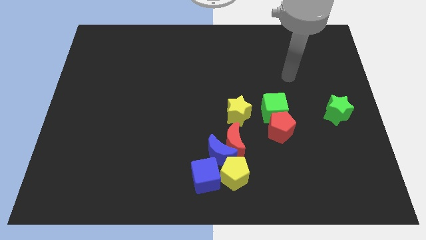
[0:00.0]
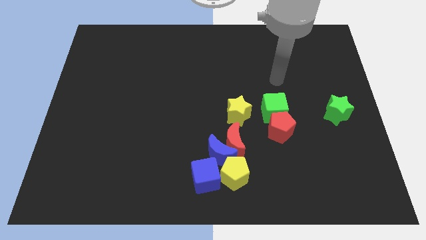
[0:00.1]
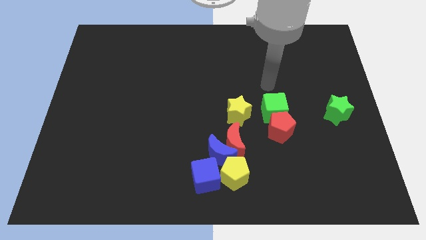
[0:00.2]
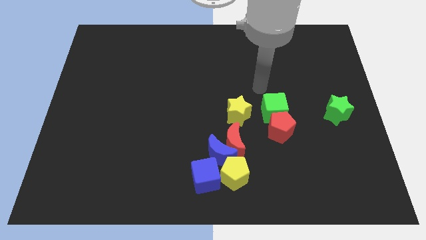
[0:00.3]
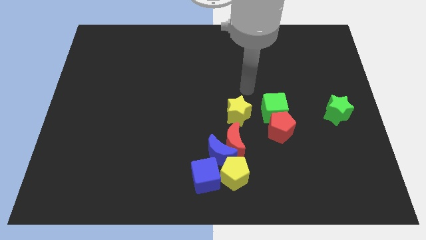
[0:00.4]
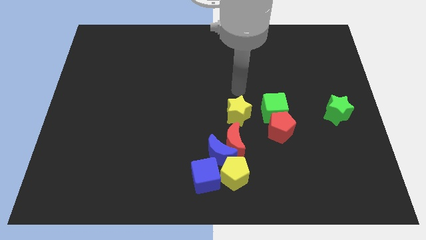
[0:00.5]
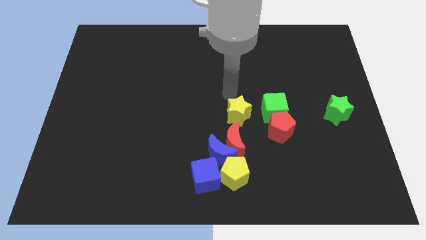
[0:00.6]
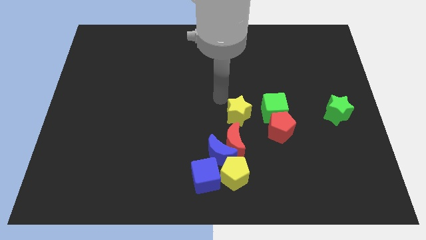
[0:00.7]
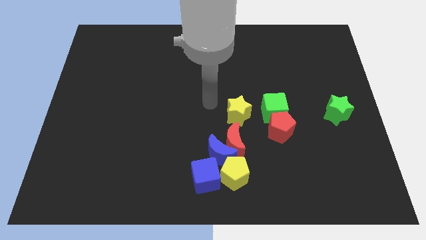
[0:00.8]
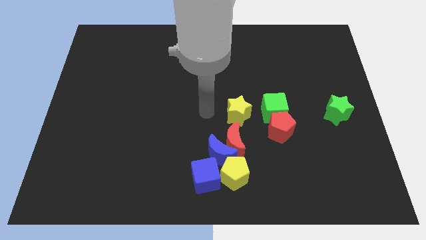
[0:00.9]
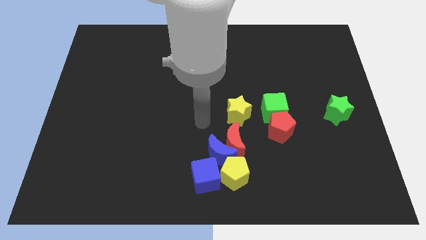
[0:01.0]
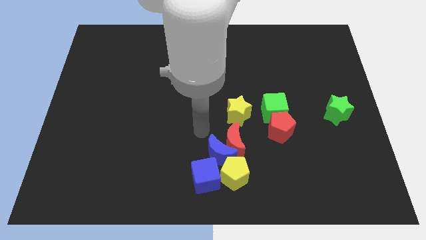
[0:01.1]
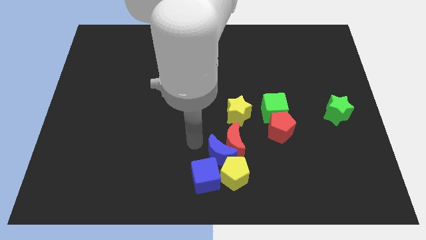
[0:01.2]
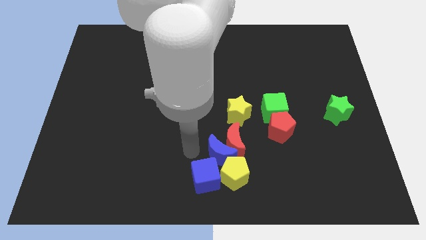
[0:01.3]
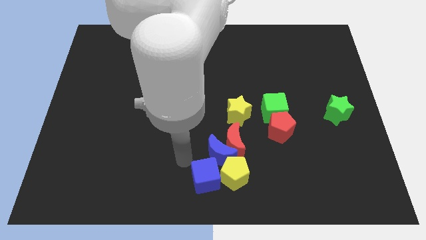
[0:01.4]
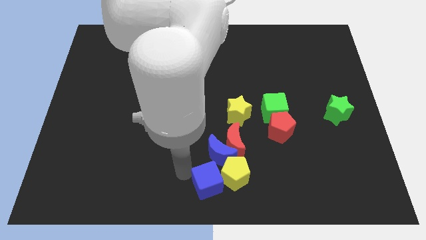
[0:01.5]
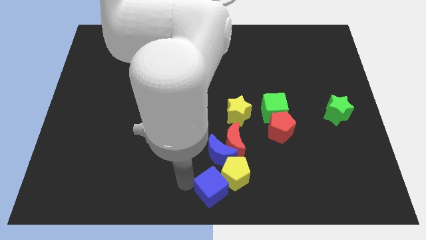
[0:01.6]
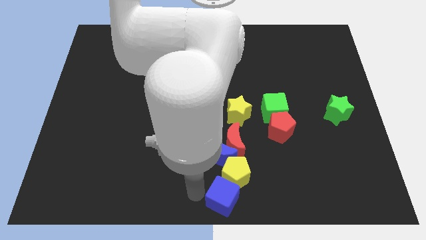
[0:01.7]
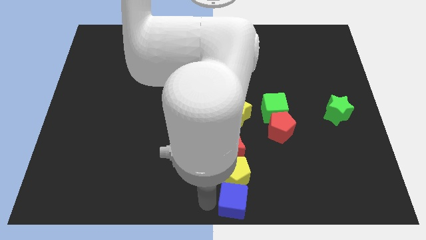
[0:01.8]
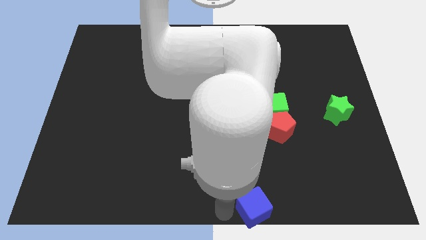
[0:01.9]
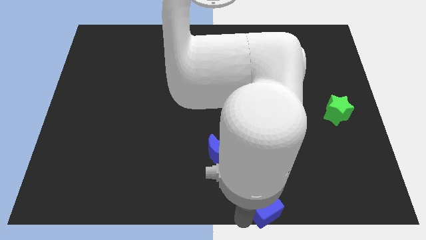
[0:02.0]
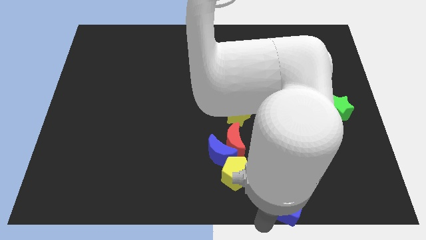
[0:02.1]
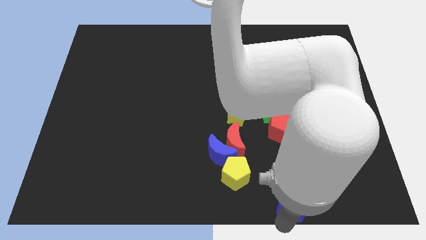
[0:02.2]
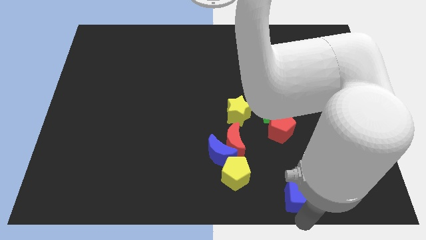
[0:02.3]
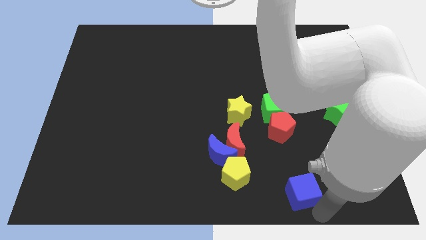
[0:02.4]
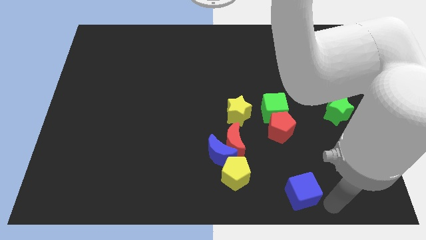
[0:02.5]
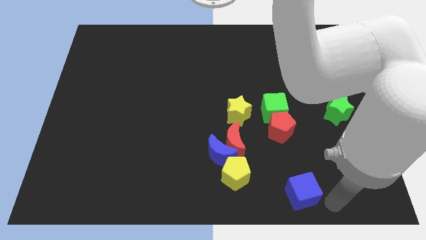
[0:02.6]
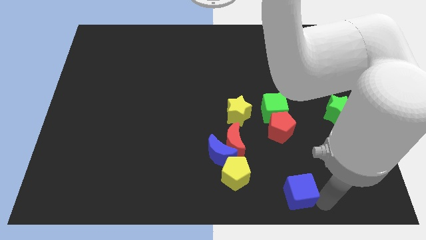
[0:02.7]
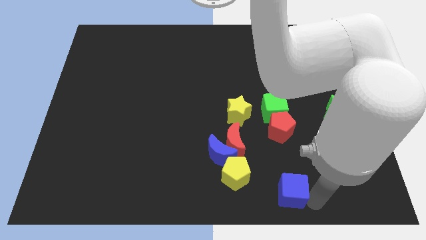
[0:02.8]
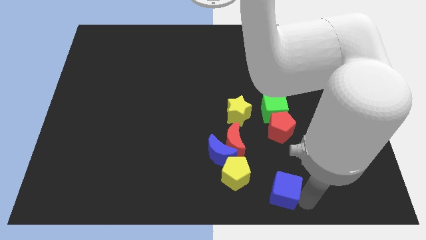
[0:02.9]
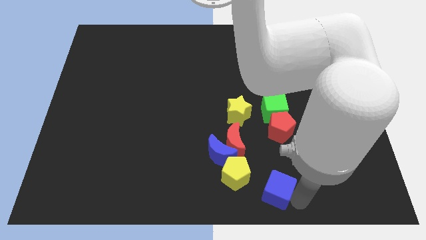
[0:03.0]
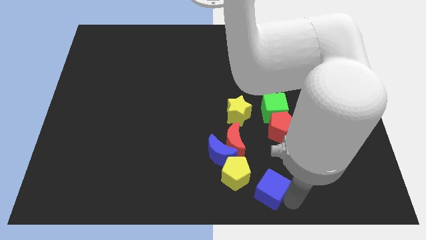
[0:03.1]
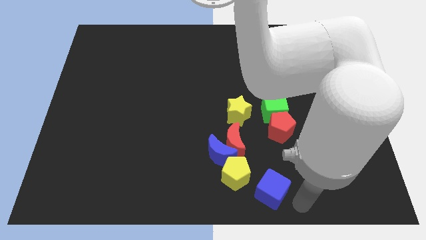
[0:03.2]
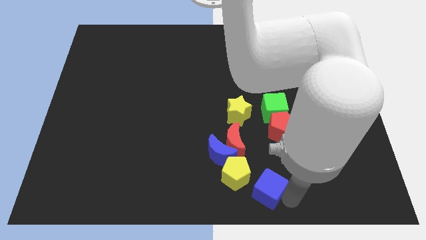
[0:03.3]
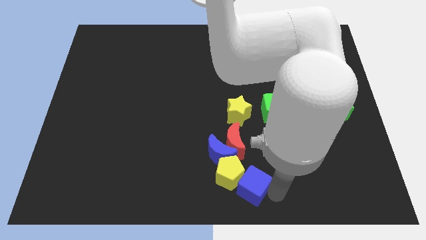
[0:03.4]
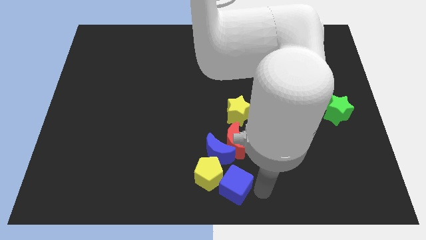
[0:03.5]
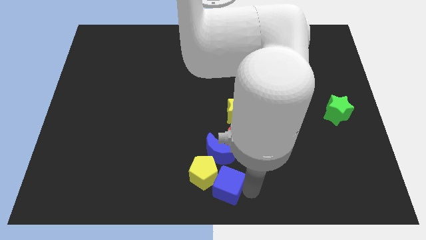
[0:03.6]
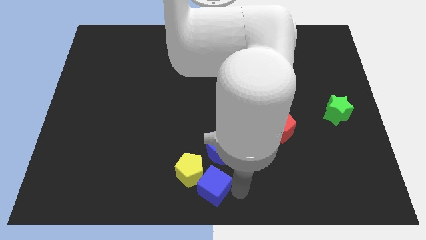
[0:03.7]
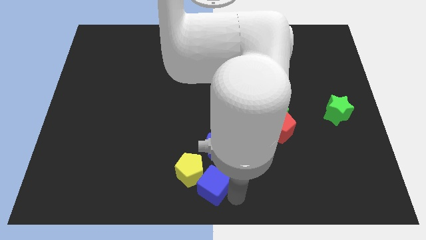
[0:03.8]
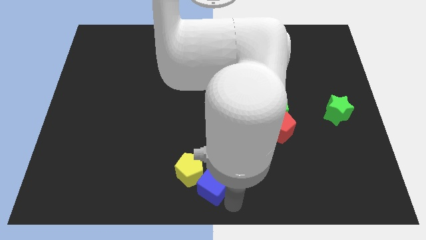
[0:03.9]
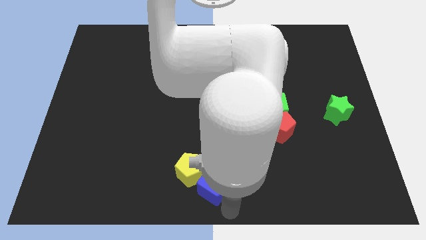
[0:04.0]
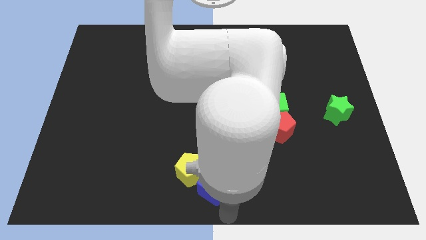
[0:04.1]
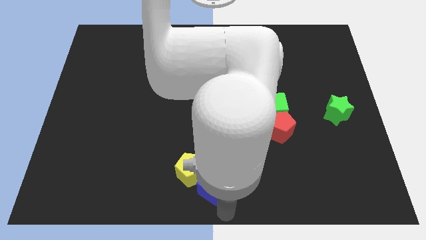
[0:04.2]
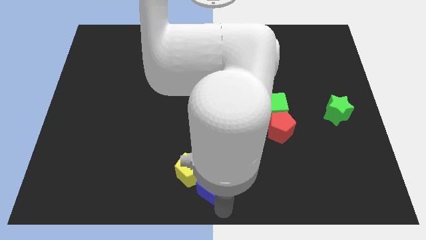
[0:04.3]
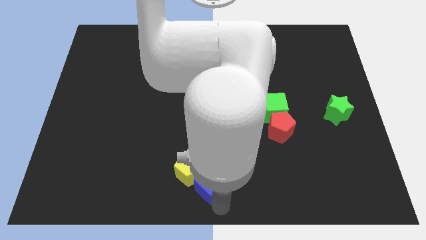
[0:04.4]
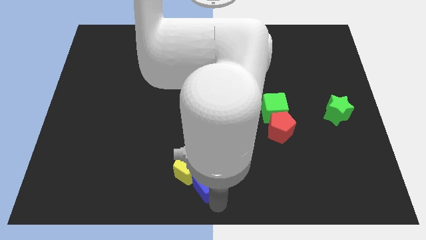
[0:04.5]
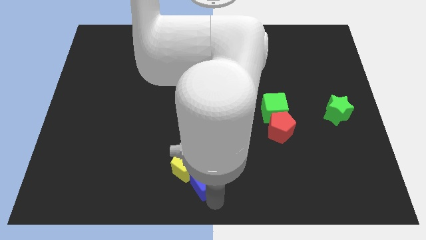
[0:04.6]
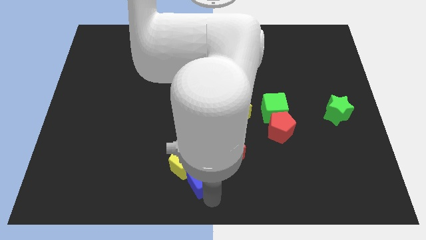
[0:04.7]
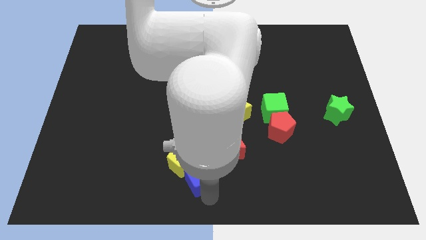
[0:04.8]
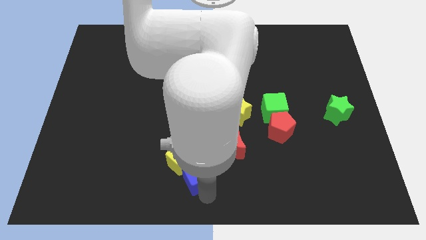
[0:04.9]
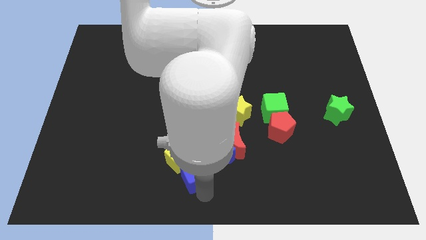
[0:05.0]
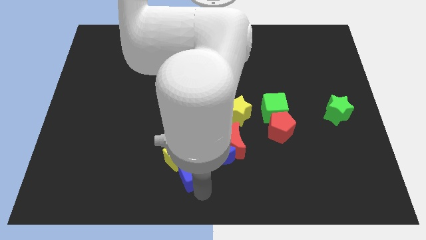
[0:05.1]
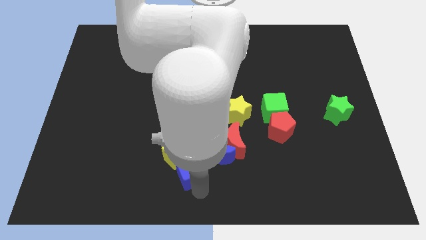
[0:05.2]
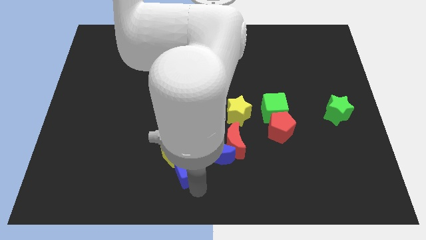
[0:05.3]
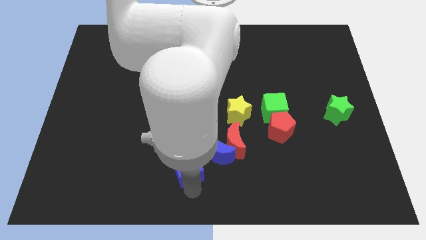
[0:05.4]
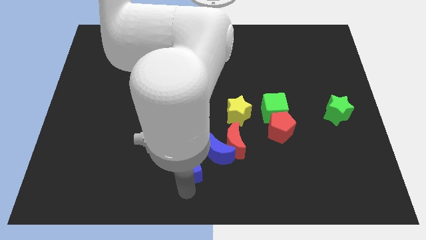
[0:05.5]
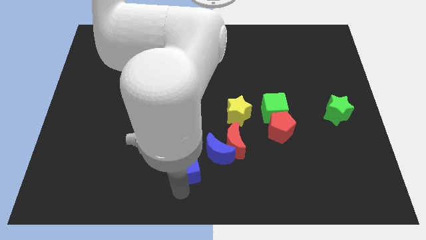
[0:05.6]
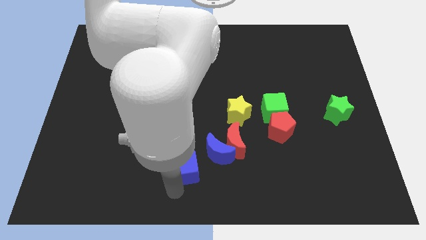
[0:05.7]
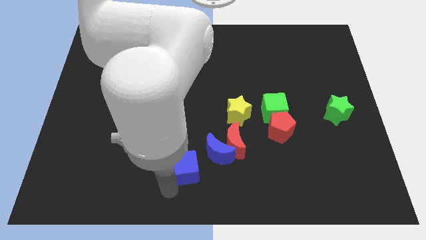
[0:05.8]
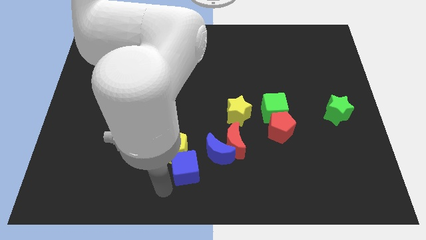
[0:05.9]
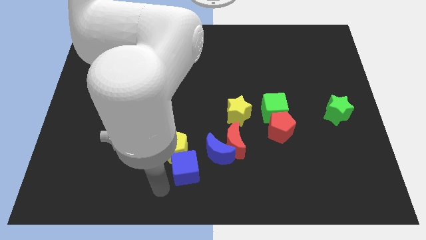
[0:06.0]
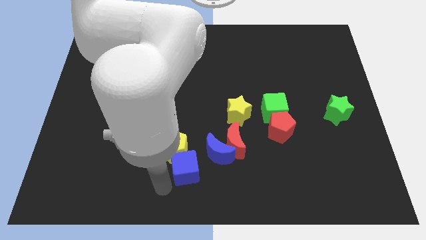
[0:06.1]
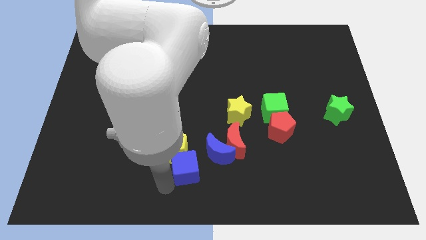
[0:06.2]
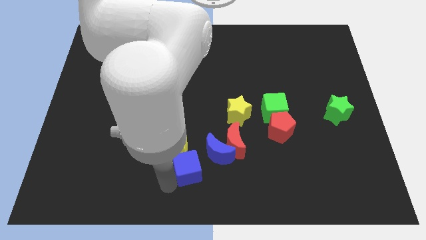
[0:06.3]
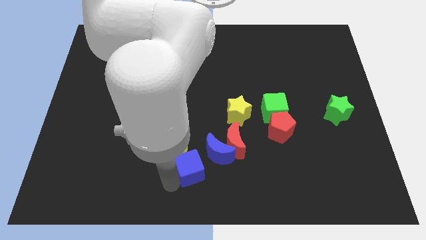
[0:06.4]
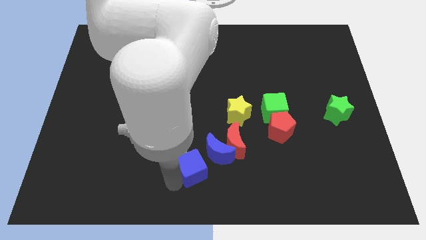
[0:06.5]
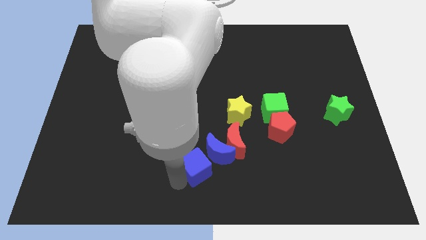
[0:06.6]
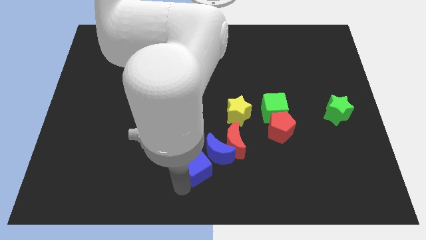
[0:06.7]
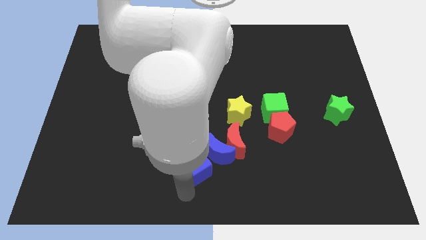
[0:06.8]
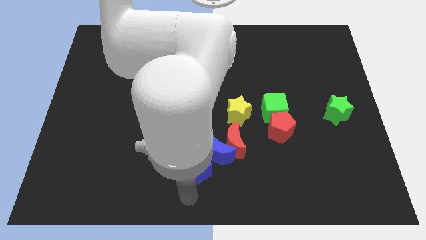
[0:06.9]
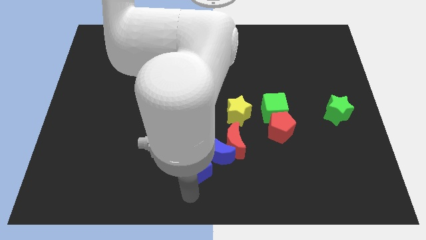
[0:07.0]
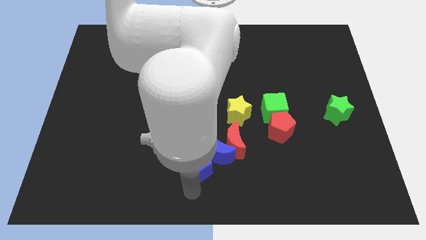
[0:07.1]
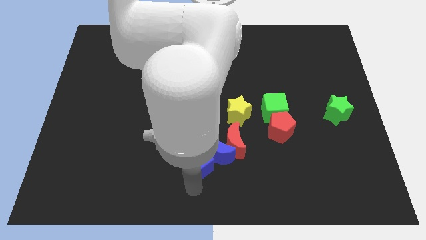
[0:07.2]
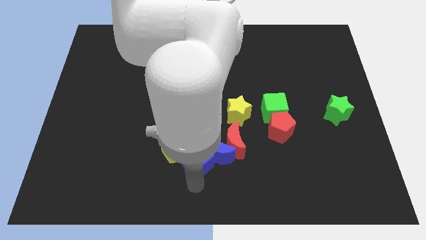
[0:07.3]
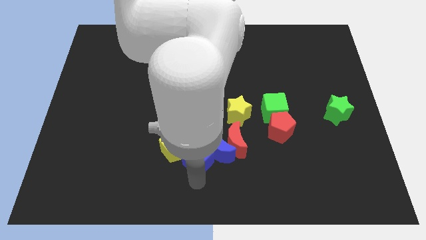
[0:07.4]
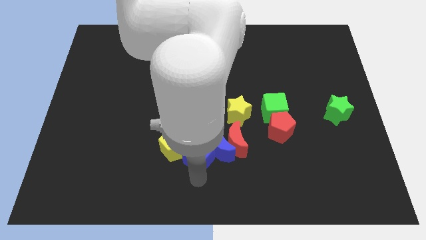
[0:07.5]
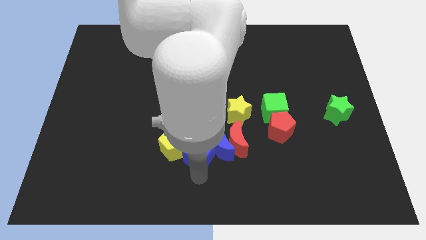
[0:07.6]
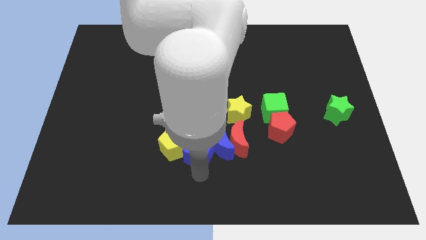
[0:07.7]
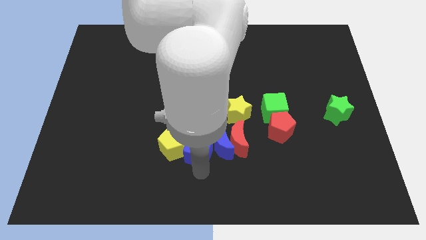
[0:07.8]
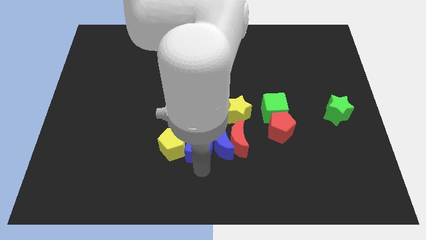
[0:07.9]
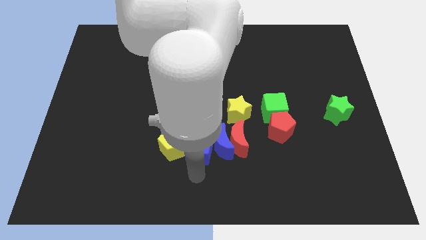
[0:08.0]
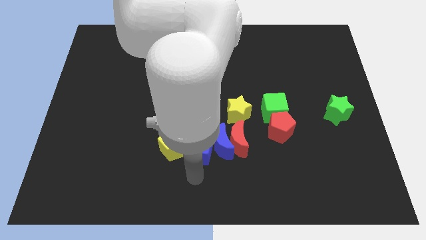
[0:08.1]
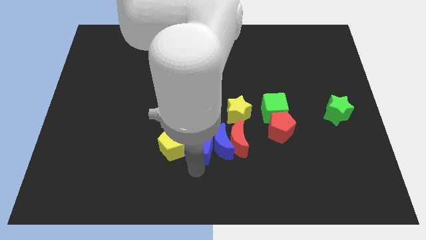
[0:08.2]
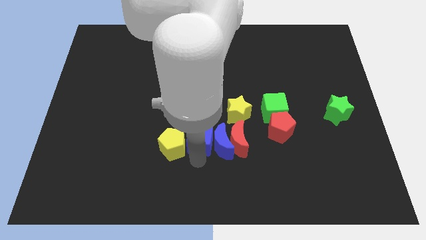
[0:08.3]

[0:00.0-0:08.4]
move the blue cube upwards a bit
